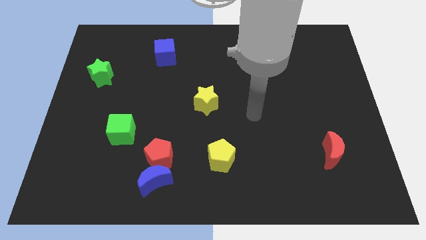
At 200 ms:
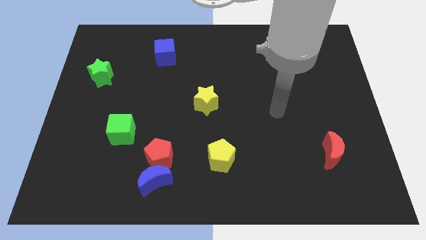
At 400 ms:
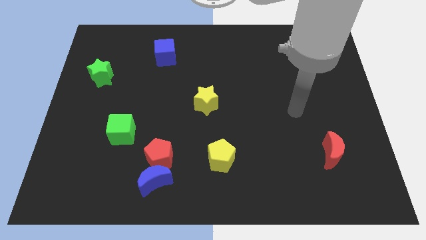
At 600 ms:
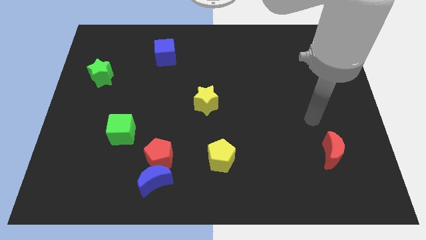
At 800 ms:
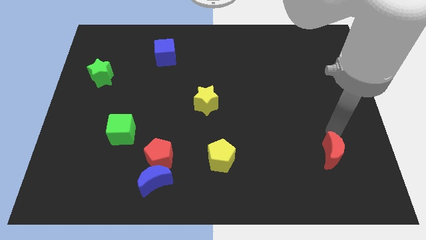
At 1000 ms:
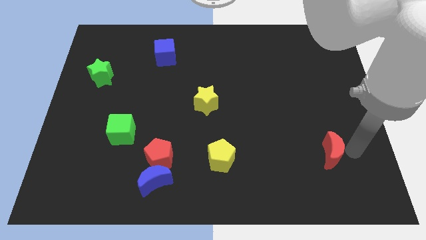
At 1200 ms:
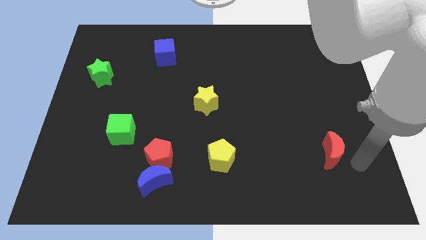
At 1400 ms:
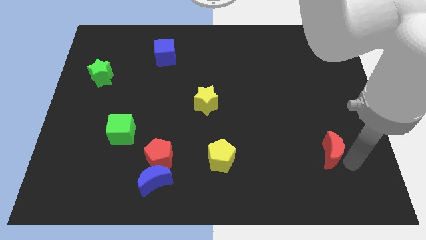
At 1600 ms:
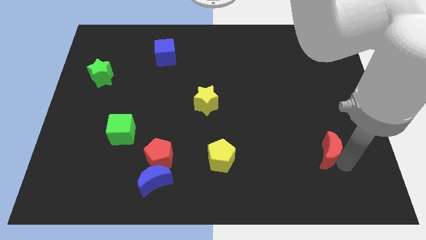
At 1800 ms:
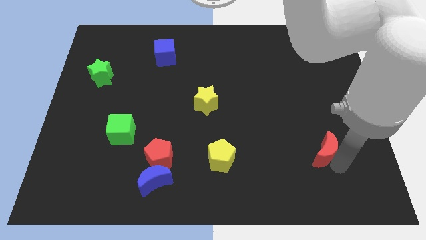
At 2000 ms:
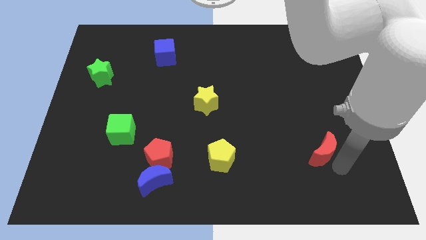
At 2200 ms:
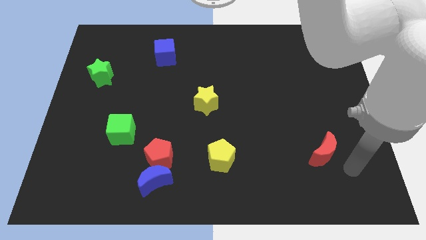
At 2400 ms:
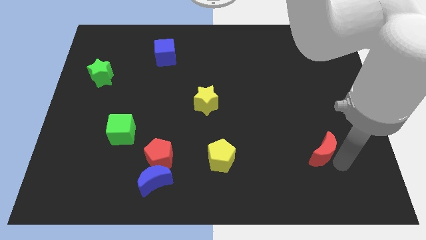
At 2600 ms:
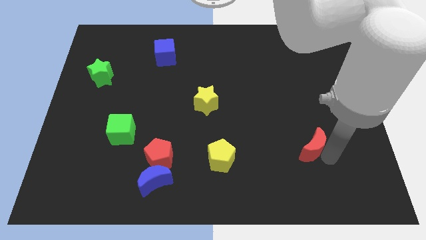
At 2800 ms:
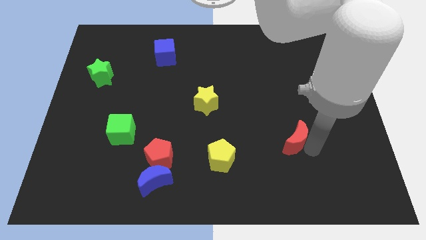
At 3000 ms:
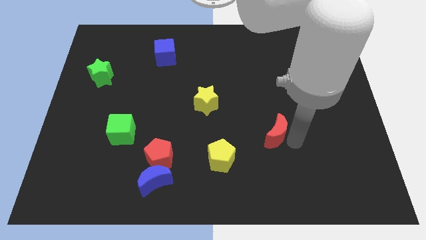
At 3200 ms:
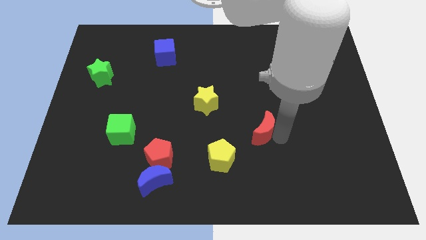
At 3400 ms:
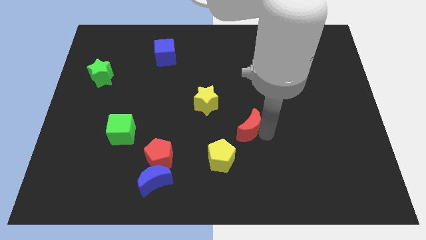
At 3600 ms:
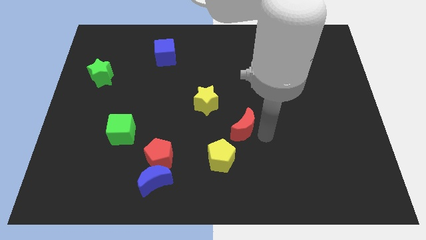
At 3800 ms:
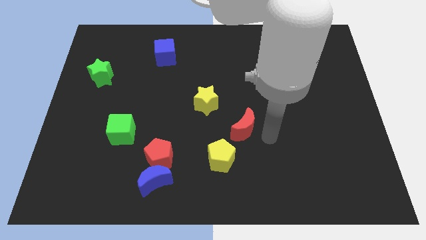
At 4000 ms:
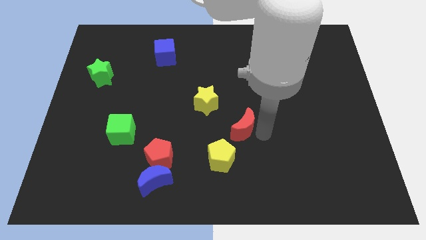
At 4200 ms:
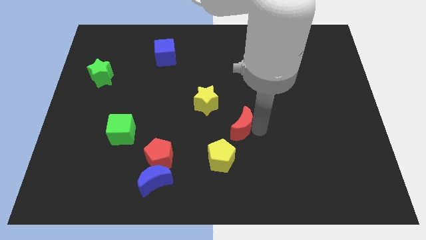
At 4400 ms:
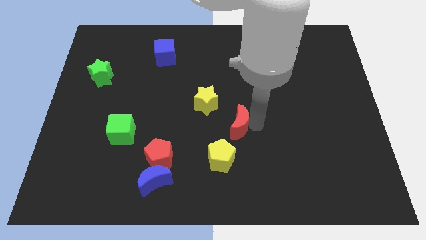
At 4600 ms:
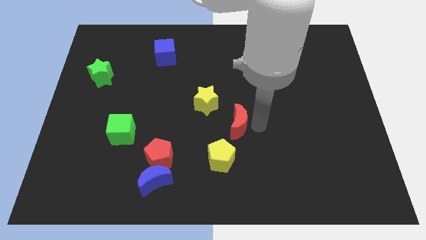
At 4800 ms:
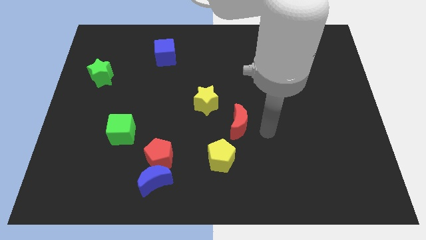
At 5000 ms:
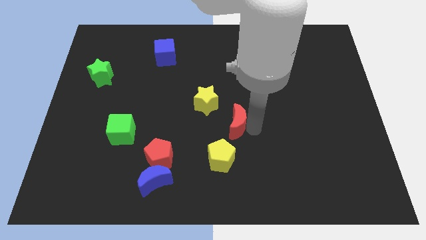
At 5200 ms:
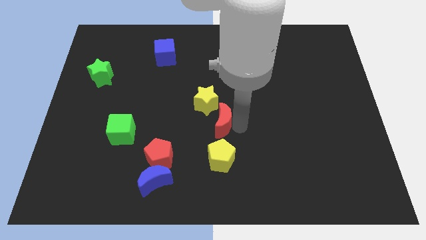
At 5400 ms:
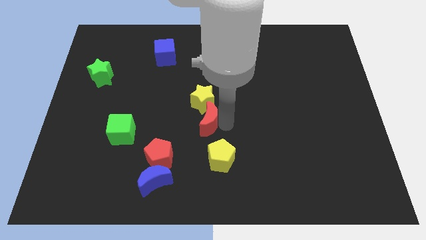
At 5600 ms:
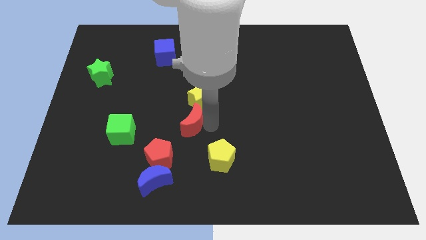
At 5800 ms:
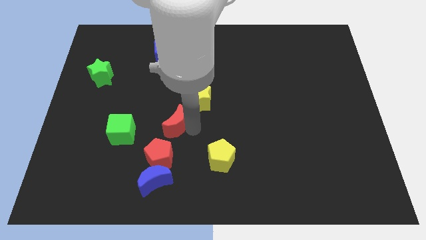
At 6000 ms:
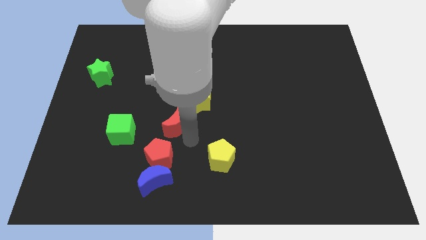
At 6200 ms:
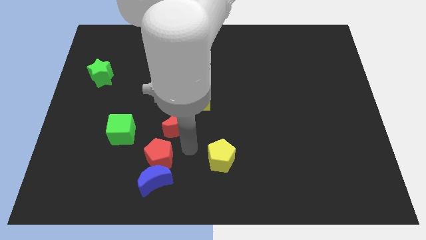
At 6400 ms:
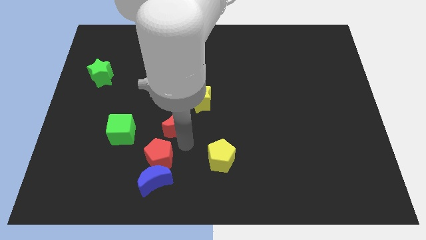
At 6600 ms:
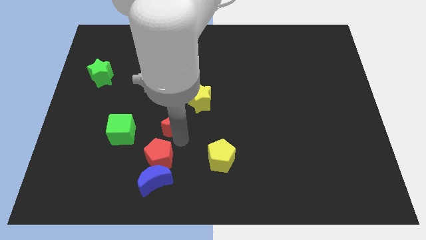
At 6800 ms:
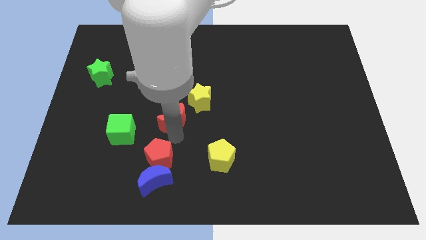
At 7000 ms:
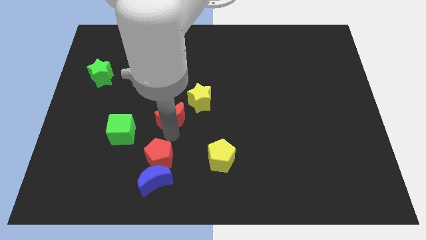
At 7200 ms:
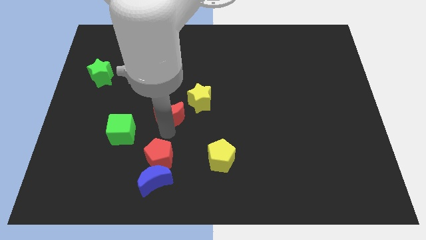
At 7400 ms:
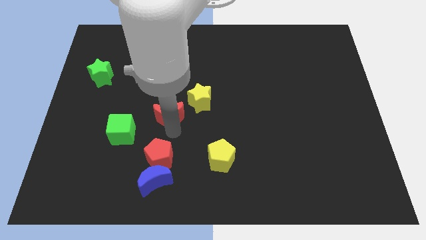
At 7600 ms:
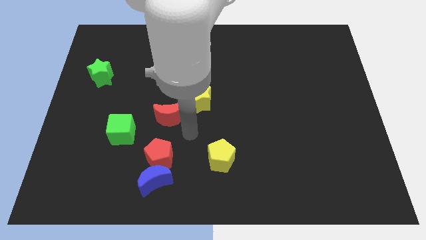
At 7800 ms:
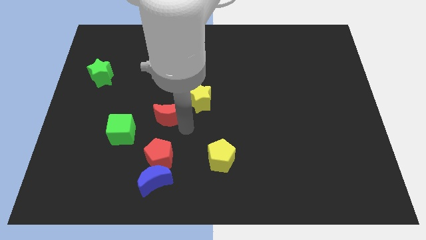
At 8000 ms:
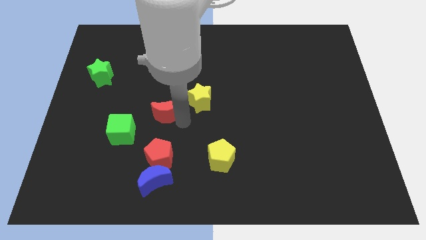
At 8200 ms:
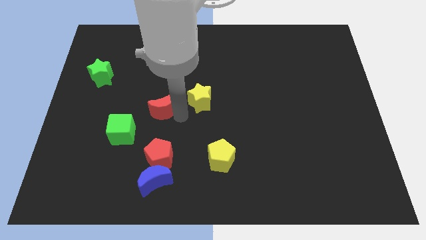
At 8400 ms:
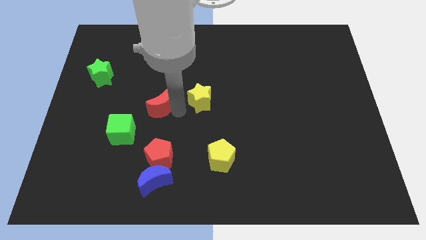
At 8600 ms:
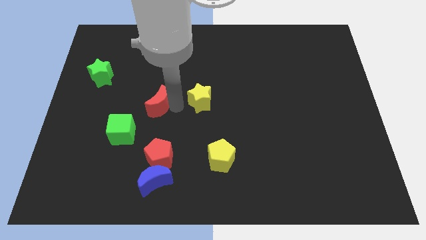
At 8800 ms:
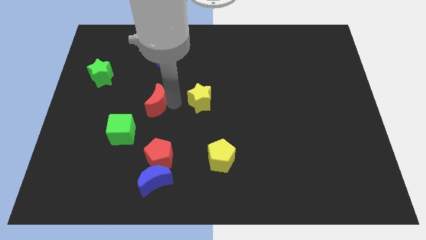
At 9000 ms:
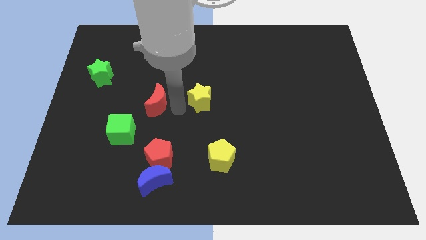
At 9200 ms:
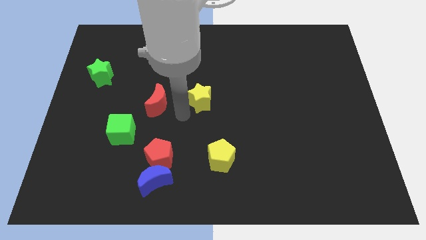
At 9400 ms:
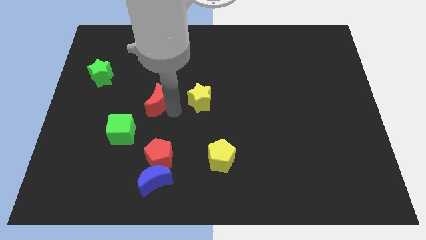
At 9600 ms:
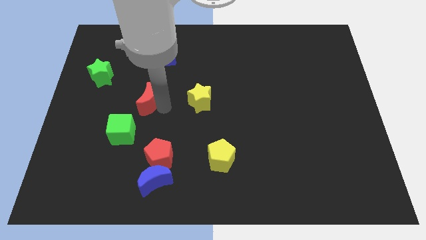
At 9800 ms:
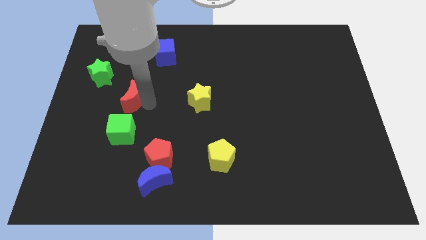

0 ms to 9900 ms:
slide the red moon diagonally down and to the right of the green star

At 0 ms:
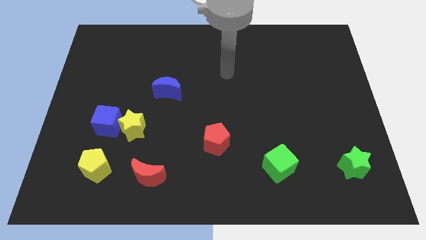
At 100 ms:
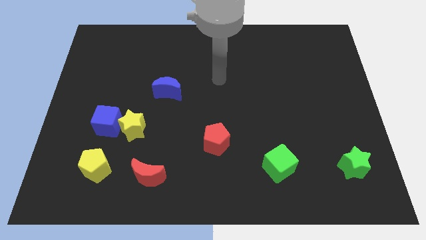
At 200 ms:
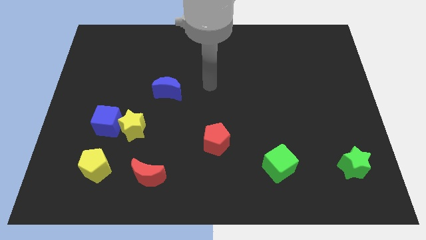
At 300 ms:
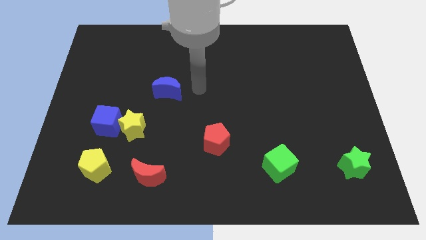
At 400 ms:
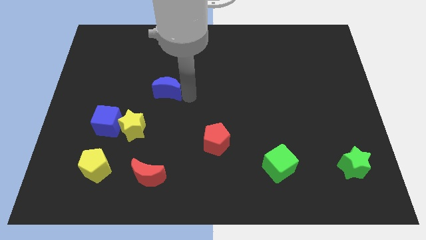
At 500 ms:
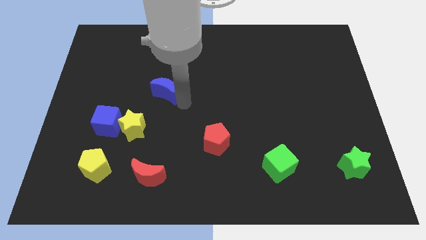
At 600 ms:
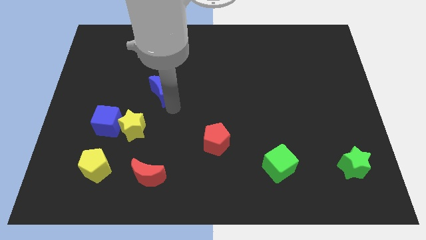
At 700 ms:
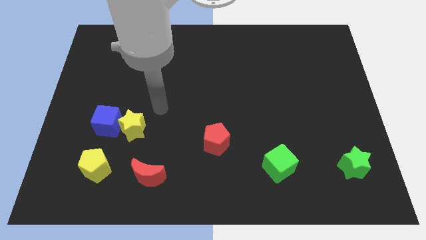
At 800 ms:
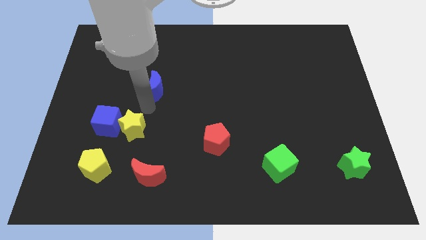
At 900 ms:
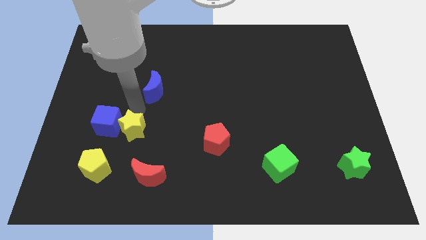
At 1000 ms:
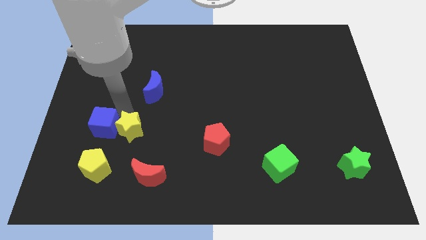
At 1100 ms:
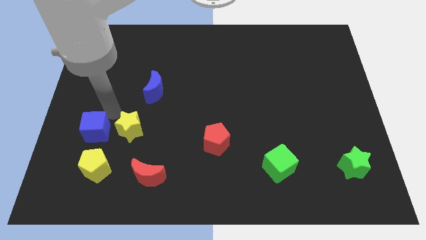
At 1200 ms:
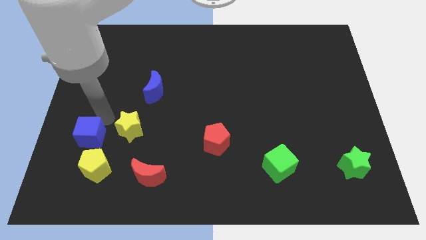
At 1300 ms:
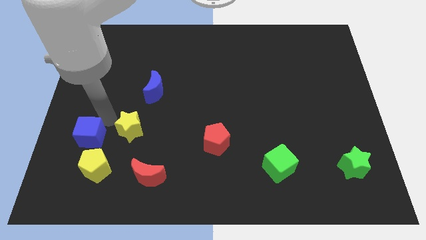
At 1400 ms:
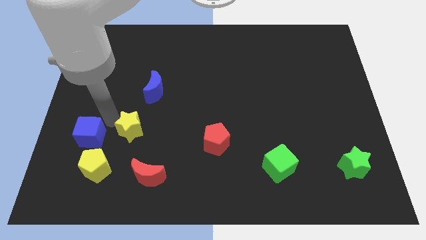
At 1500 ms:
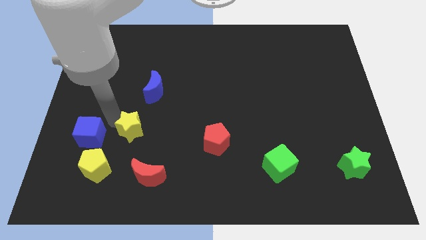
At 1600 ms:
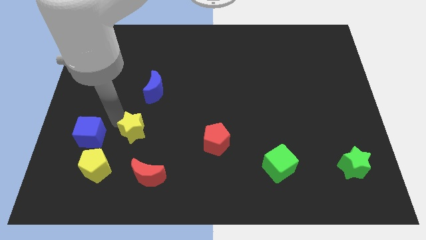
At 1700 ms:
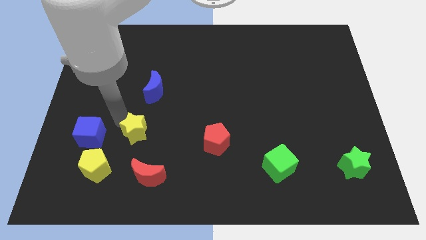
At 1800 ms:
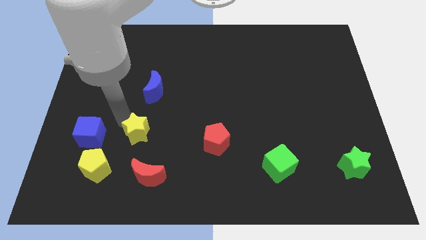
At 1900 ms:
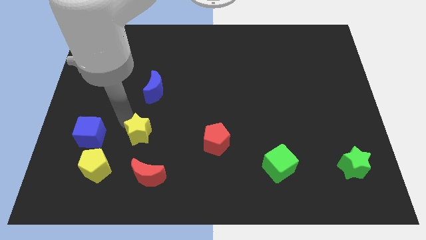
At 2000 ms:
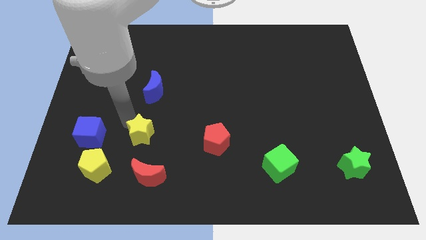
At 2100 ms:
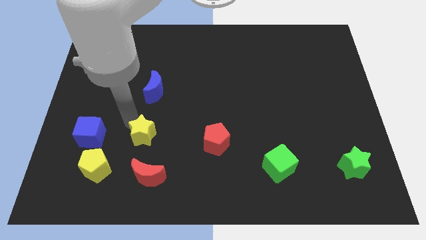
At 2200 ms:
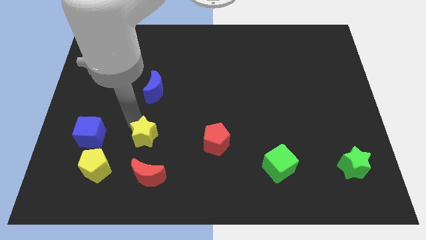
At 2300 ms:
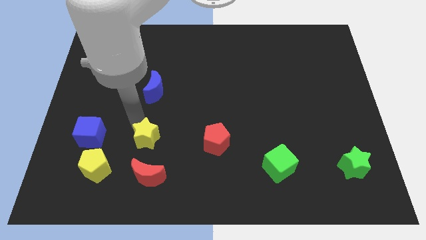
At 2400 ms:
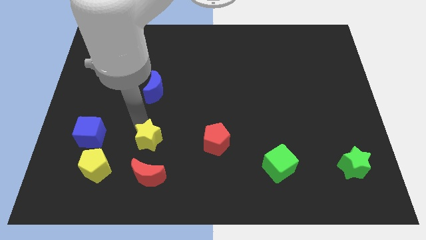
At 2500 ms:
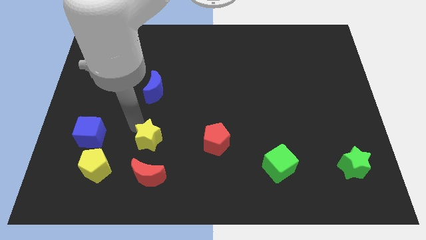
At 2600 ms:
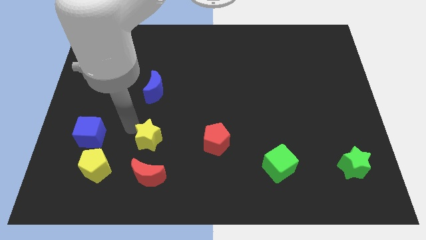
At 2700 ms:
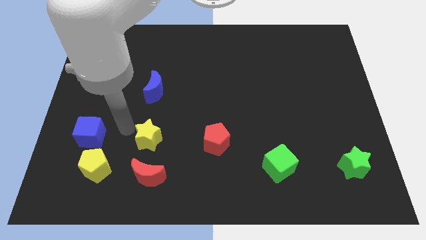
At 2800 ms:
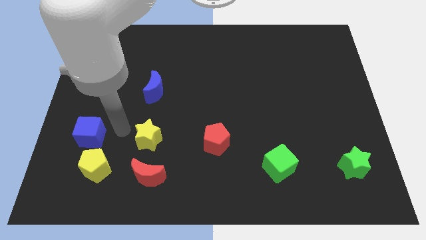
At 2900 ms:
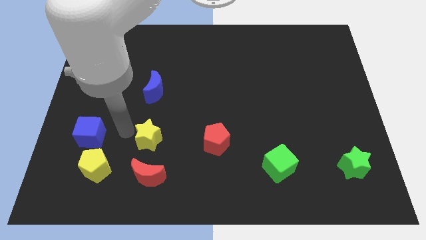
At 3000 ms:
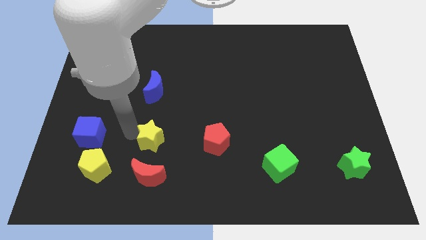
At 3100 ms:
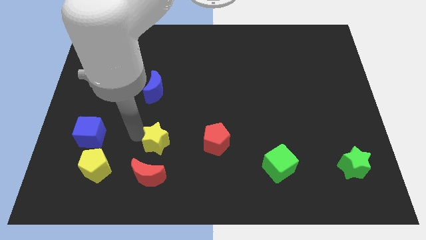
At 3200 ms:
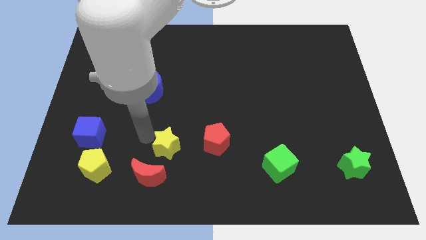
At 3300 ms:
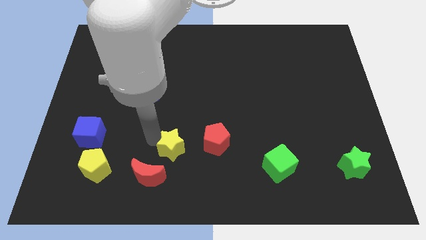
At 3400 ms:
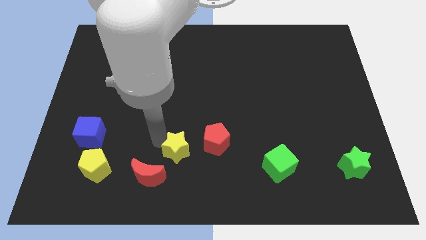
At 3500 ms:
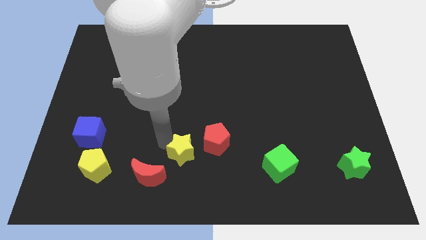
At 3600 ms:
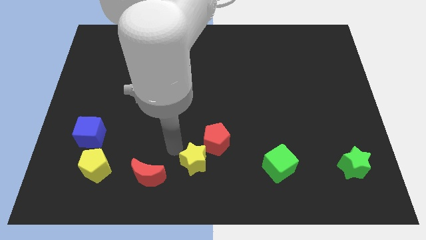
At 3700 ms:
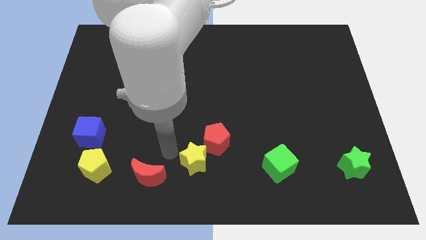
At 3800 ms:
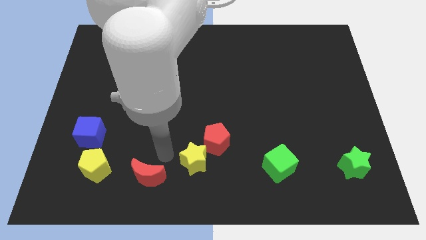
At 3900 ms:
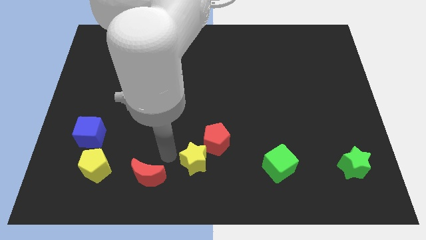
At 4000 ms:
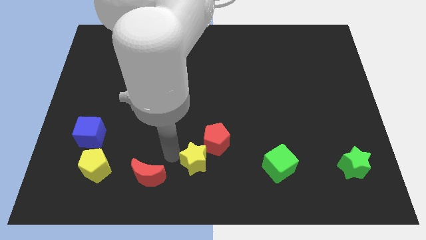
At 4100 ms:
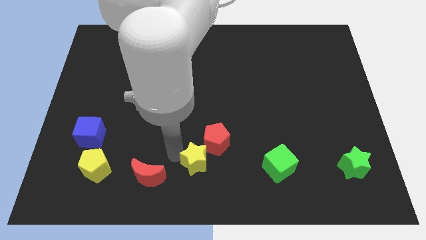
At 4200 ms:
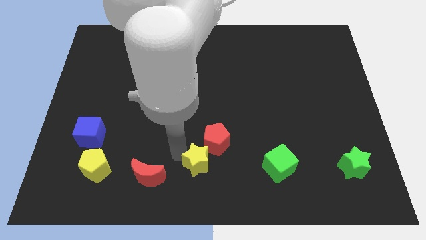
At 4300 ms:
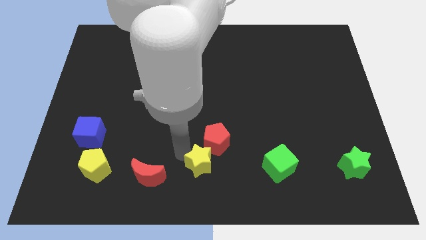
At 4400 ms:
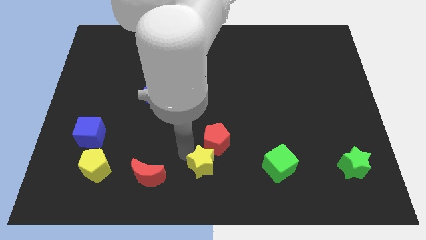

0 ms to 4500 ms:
move the yellow star left of the green cube
